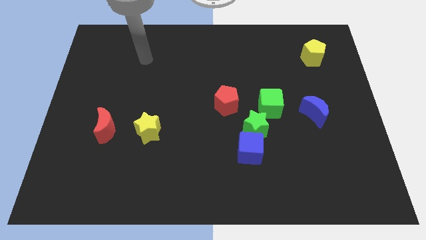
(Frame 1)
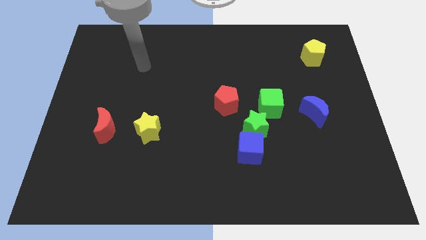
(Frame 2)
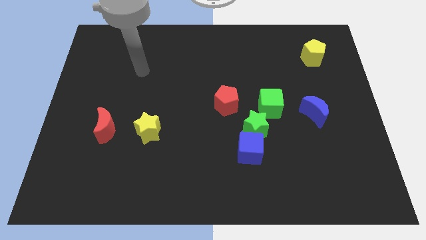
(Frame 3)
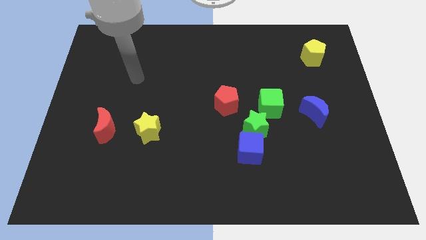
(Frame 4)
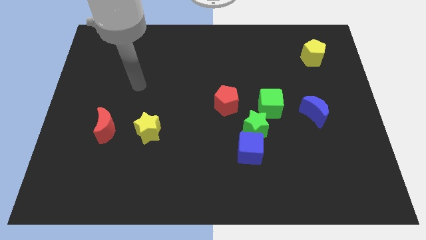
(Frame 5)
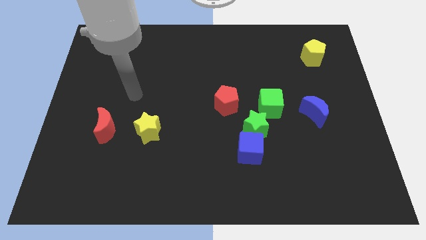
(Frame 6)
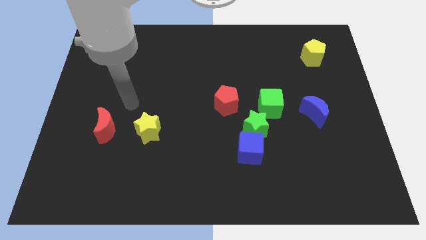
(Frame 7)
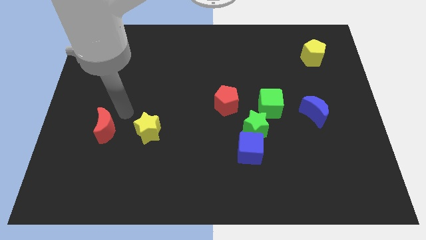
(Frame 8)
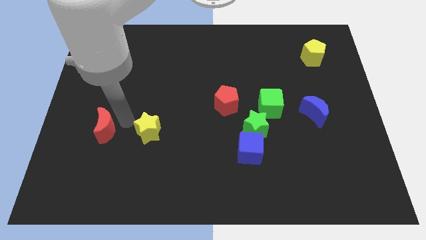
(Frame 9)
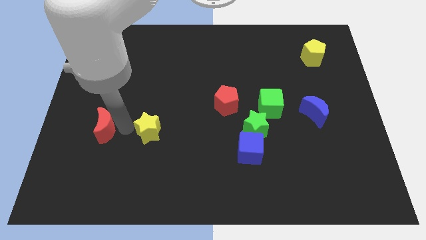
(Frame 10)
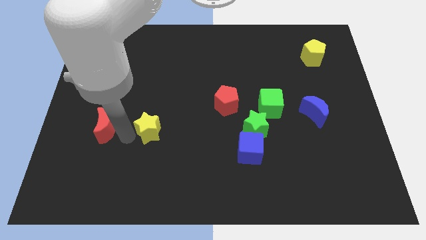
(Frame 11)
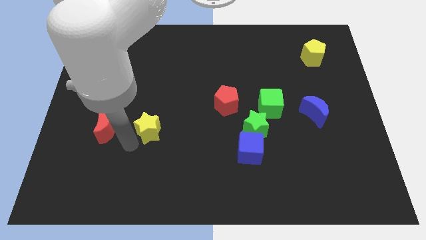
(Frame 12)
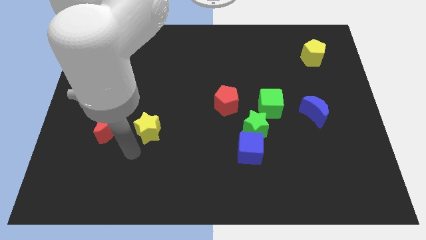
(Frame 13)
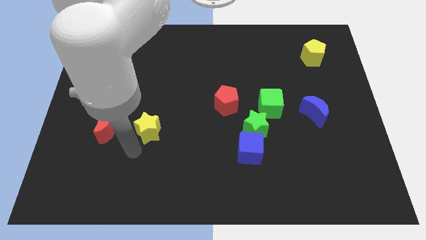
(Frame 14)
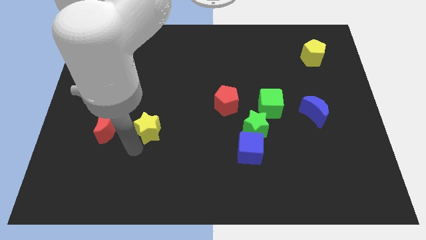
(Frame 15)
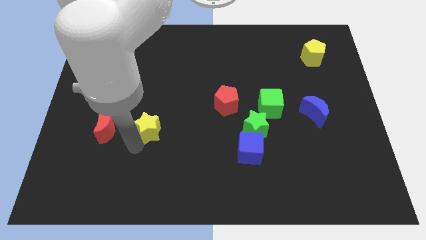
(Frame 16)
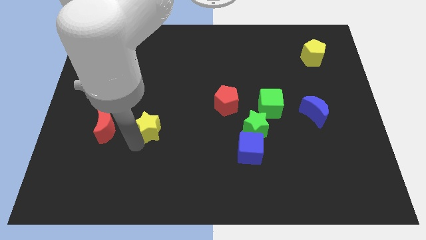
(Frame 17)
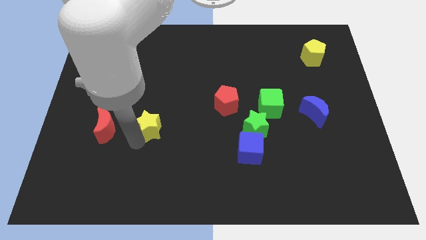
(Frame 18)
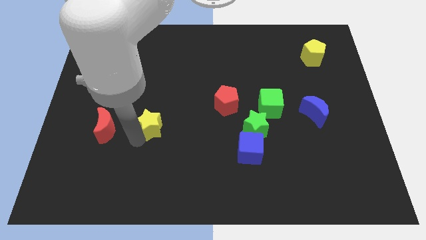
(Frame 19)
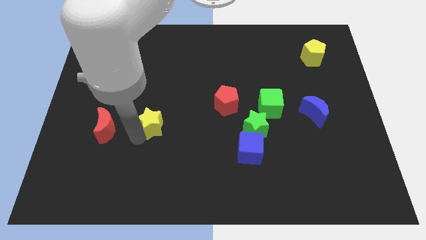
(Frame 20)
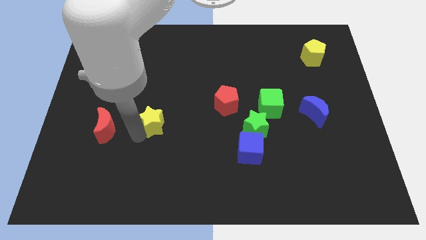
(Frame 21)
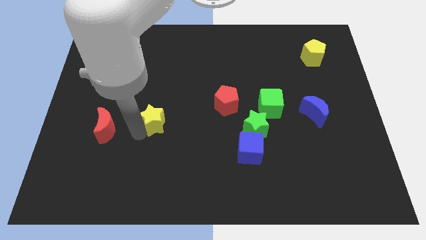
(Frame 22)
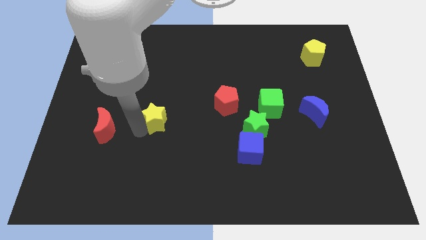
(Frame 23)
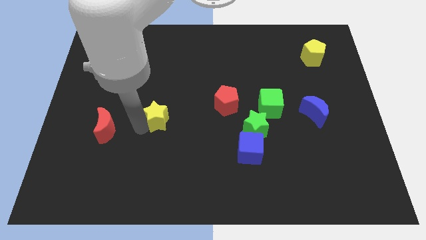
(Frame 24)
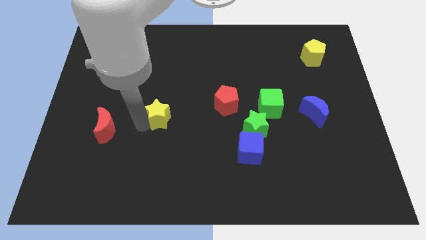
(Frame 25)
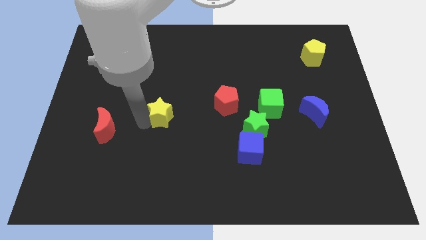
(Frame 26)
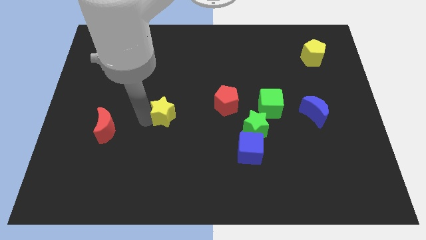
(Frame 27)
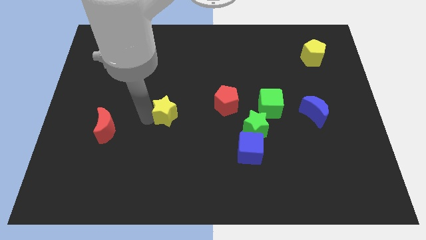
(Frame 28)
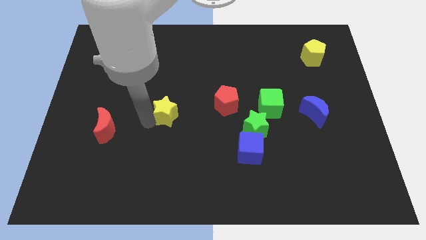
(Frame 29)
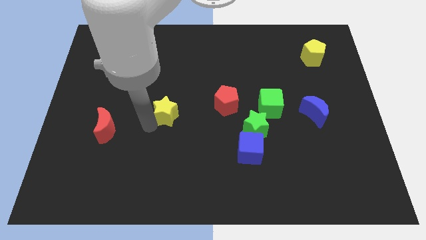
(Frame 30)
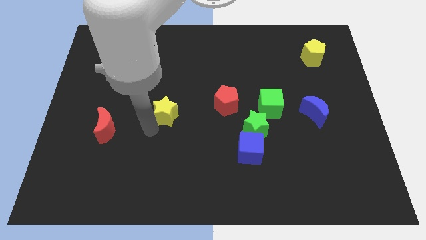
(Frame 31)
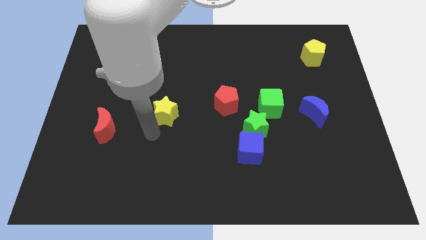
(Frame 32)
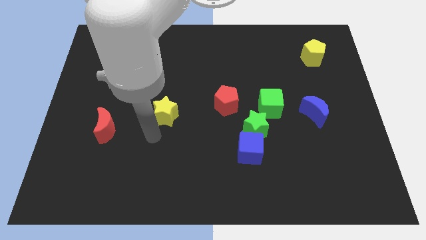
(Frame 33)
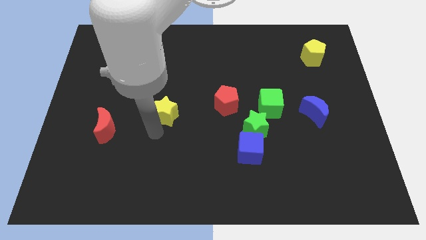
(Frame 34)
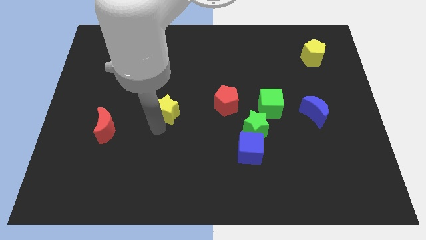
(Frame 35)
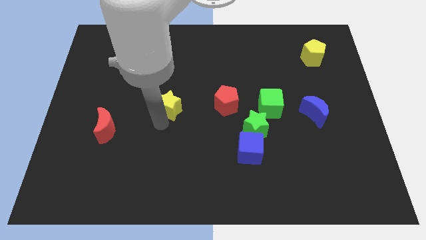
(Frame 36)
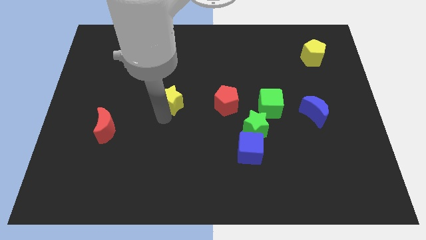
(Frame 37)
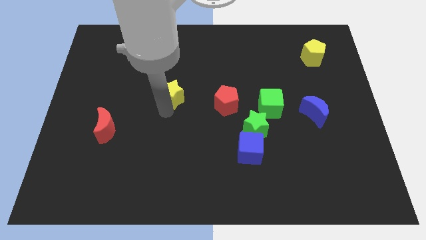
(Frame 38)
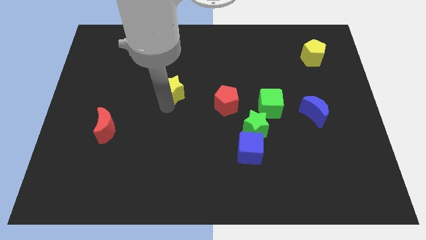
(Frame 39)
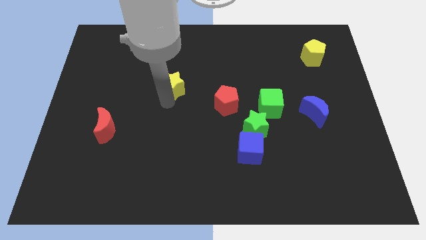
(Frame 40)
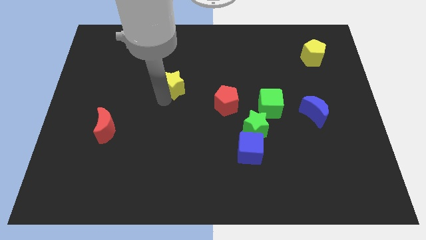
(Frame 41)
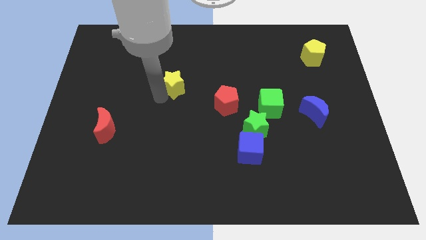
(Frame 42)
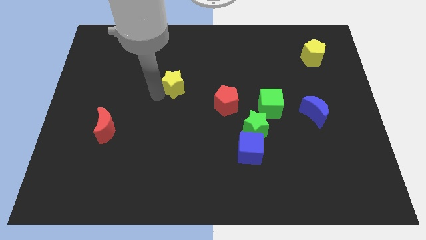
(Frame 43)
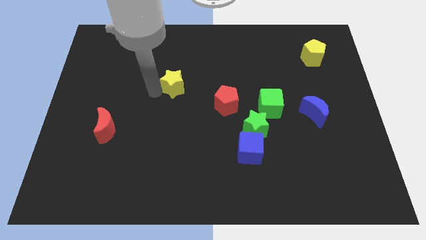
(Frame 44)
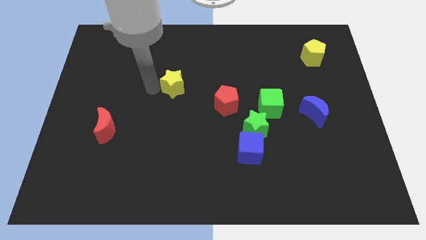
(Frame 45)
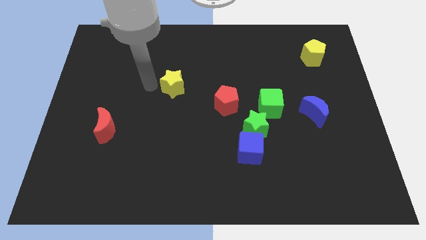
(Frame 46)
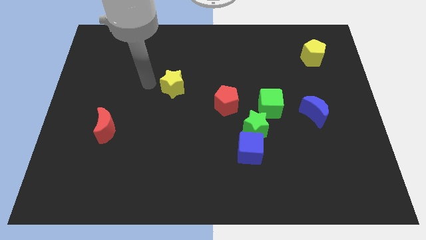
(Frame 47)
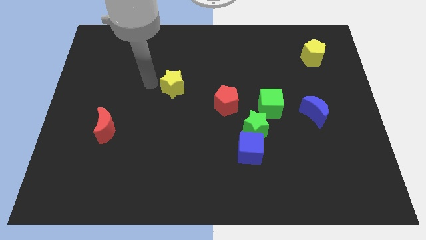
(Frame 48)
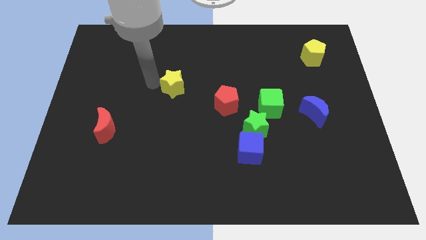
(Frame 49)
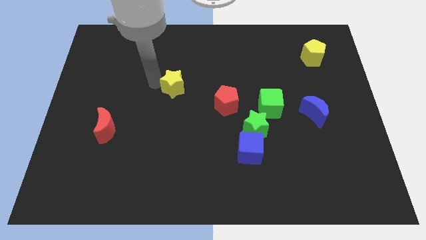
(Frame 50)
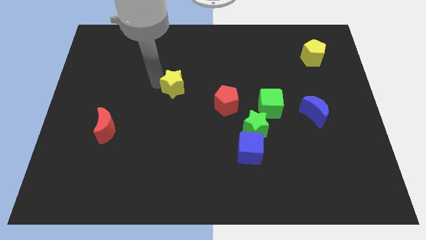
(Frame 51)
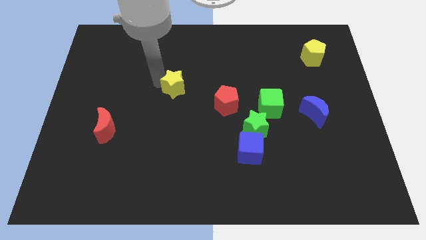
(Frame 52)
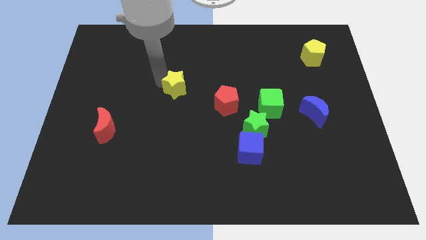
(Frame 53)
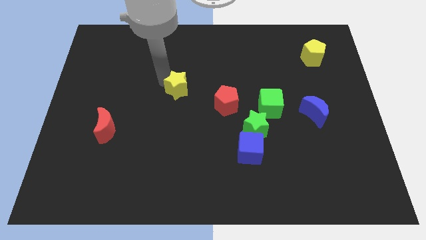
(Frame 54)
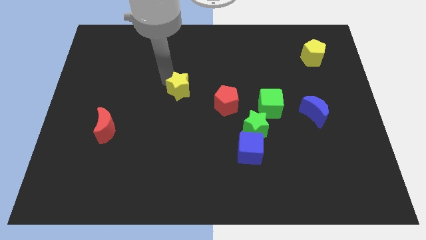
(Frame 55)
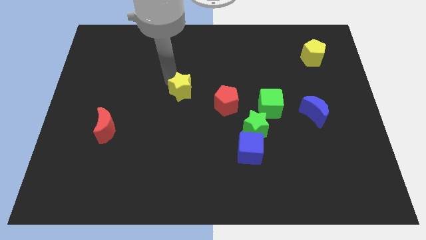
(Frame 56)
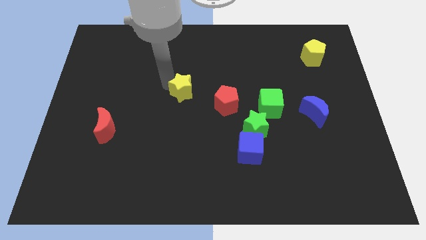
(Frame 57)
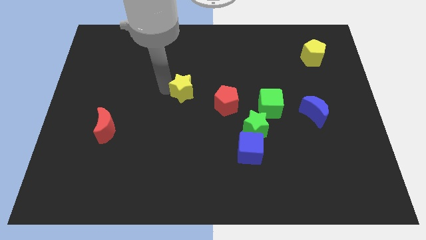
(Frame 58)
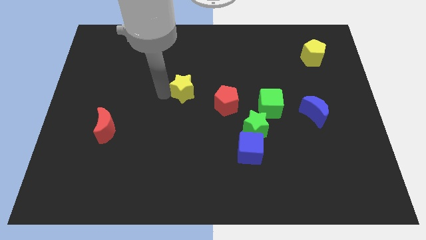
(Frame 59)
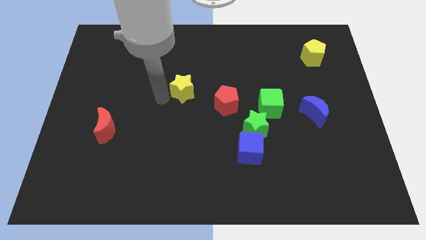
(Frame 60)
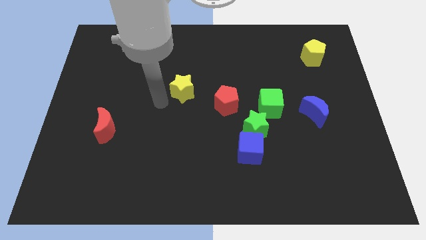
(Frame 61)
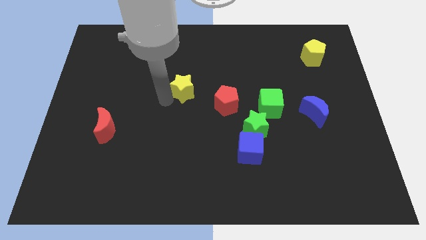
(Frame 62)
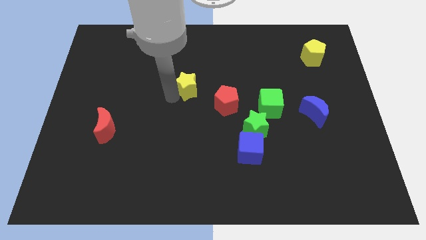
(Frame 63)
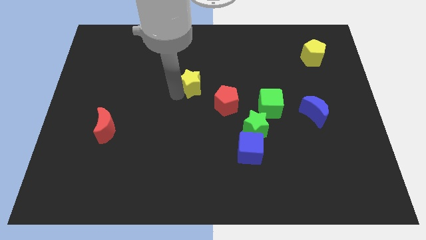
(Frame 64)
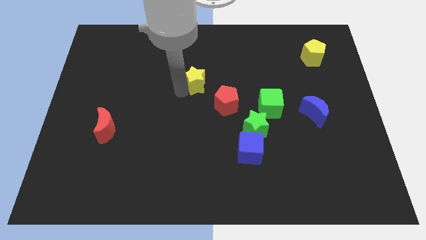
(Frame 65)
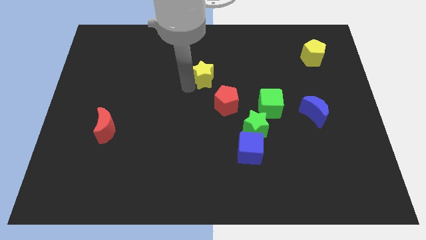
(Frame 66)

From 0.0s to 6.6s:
push the yellow star up and to the right

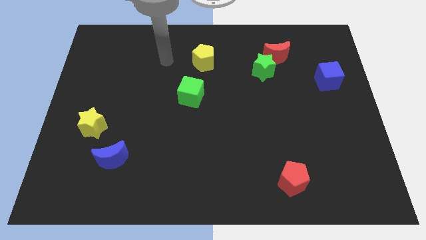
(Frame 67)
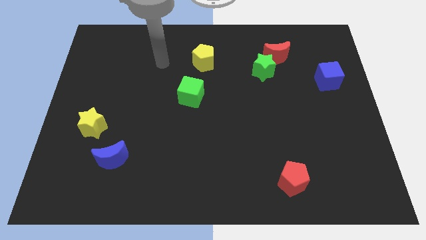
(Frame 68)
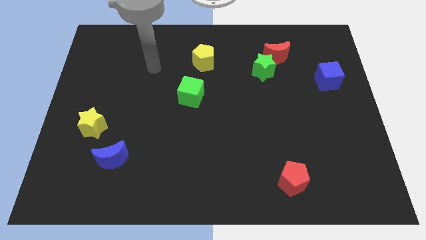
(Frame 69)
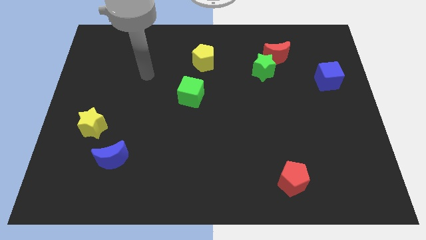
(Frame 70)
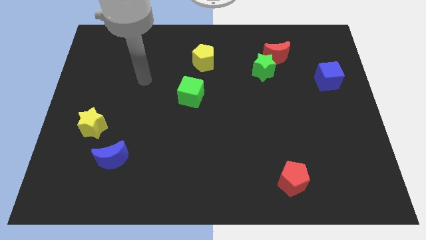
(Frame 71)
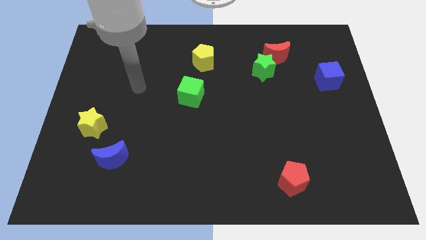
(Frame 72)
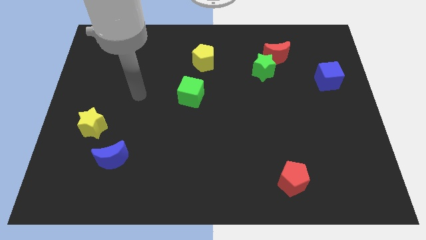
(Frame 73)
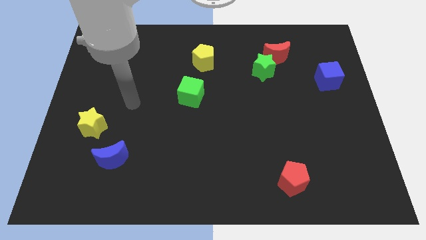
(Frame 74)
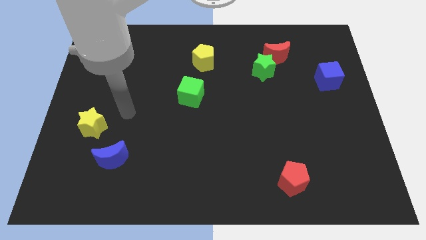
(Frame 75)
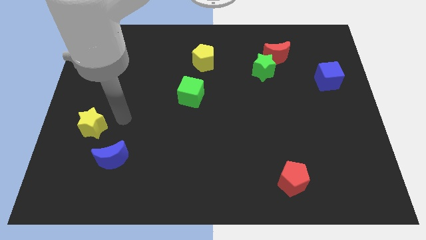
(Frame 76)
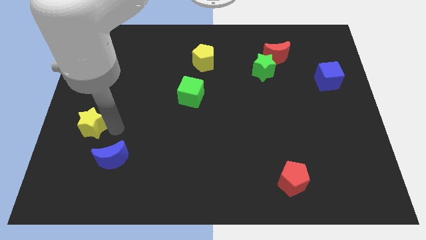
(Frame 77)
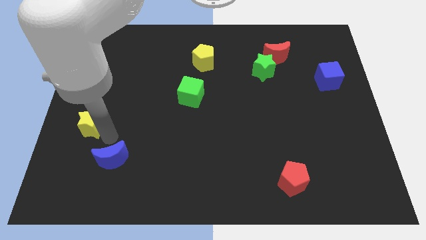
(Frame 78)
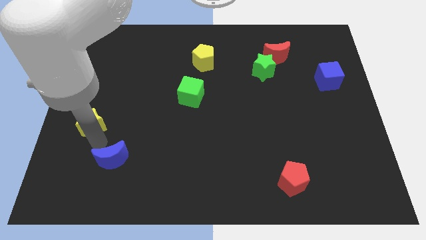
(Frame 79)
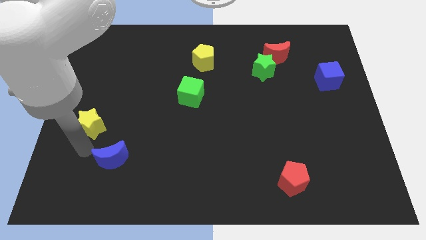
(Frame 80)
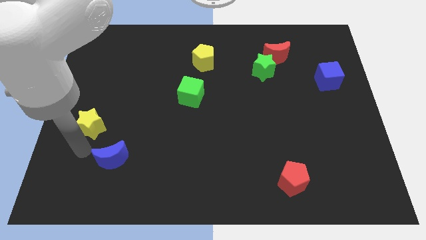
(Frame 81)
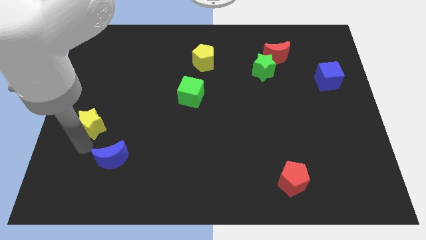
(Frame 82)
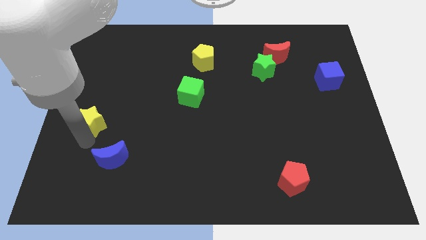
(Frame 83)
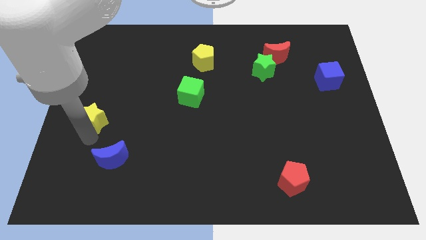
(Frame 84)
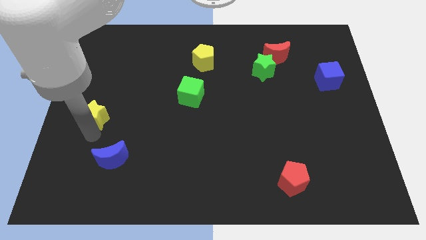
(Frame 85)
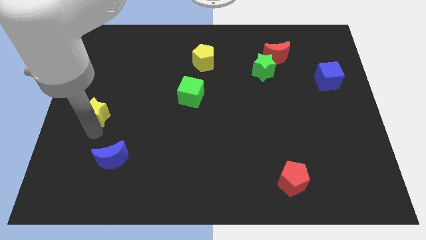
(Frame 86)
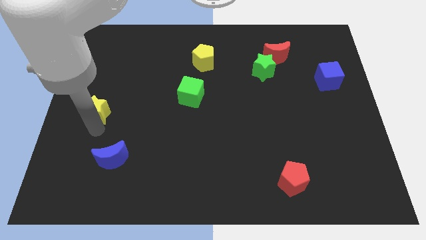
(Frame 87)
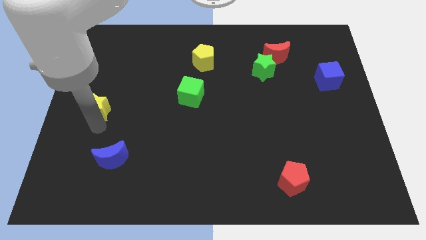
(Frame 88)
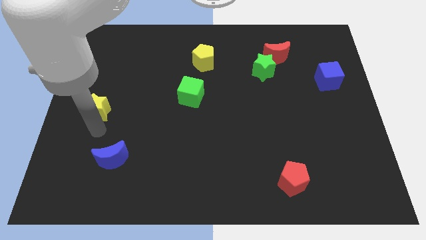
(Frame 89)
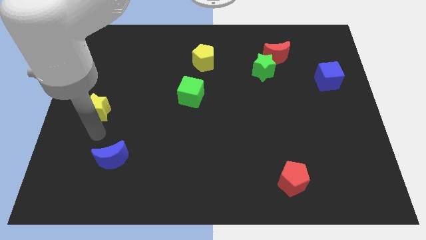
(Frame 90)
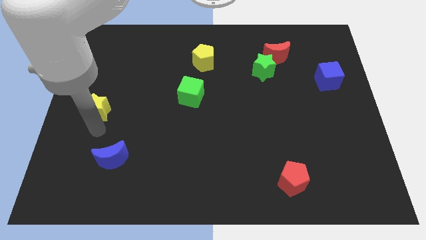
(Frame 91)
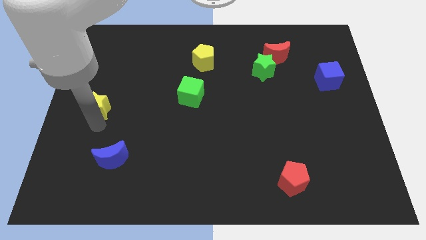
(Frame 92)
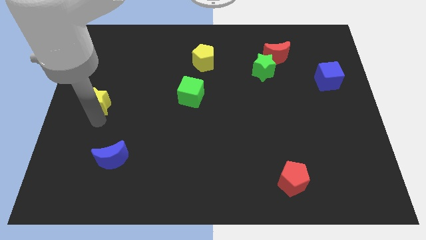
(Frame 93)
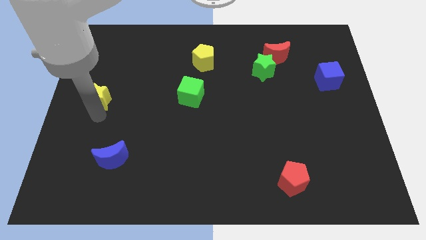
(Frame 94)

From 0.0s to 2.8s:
move the yellow star upwards a little
